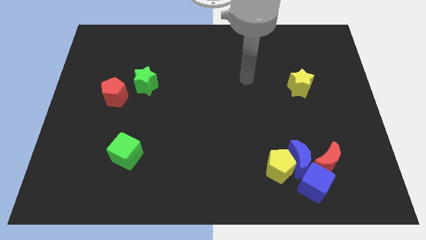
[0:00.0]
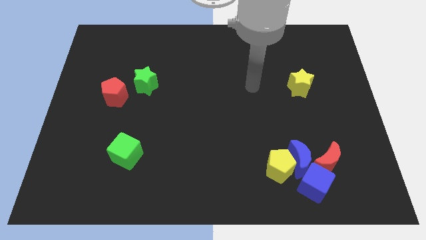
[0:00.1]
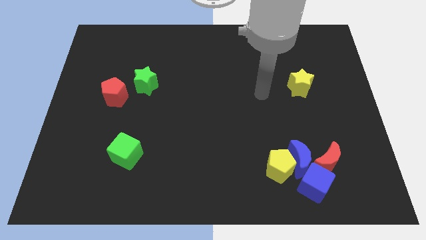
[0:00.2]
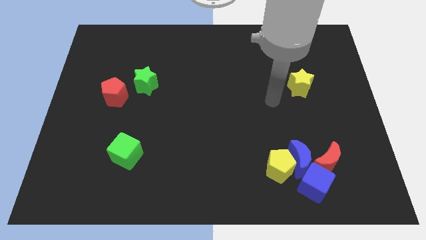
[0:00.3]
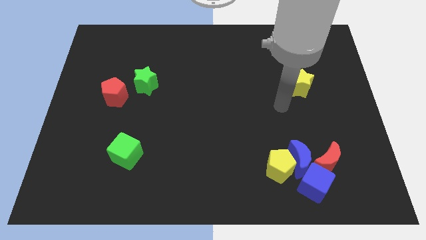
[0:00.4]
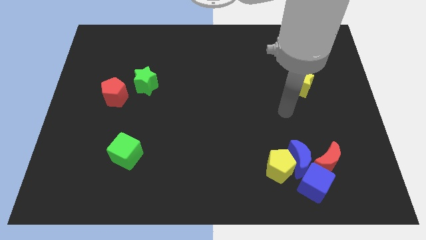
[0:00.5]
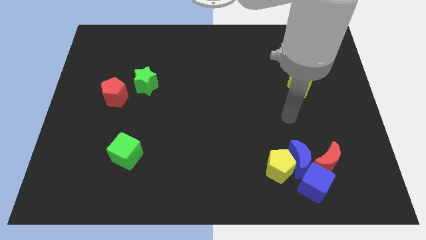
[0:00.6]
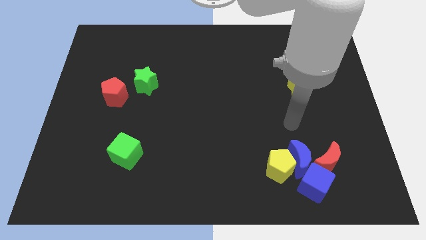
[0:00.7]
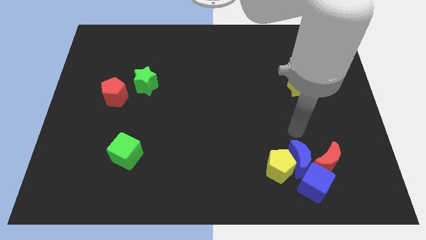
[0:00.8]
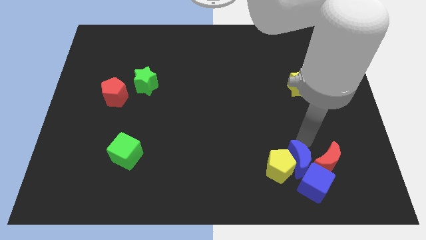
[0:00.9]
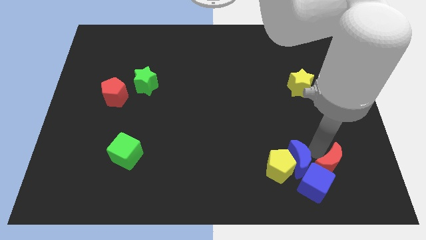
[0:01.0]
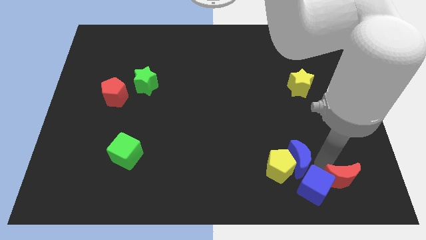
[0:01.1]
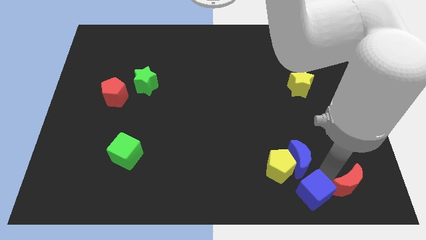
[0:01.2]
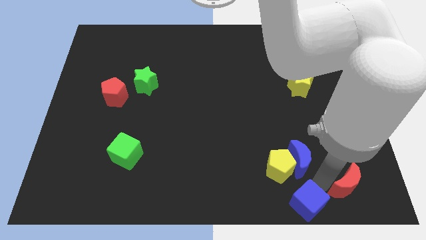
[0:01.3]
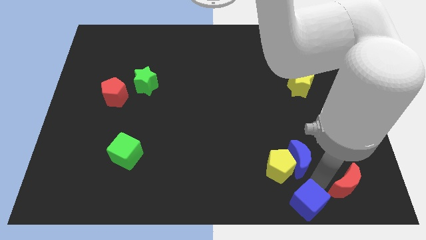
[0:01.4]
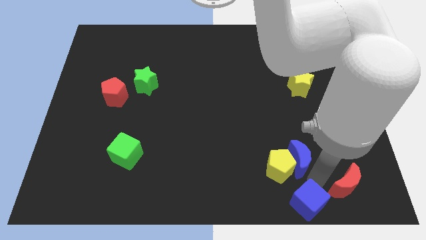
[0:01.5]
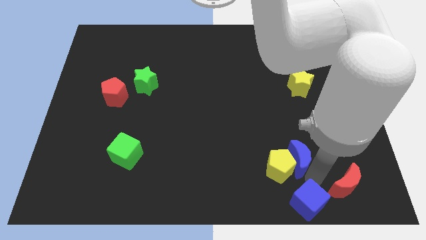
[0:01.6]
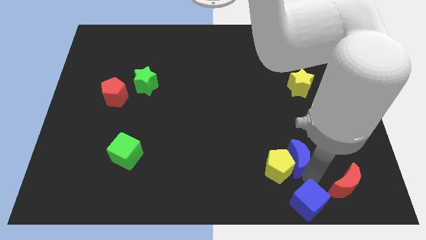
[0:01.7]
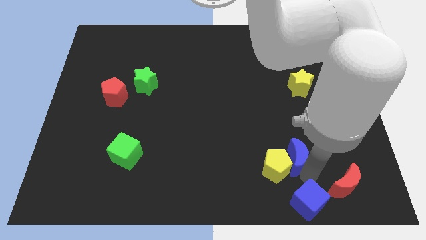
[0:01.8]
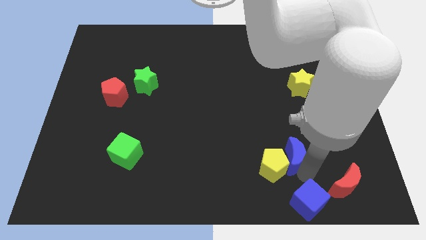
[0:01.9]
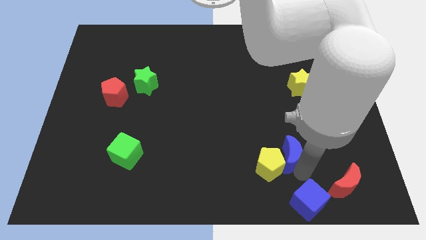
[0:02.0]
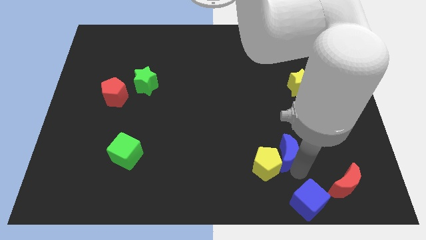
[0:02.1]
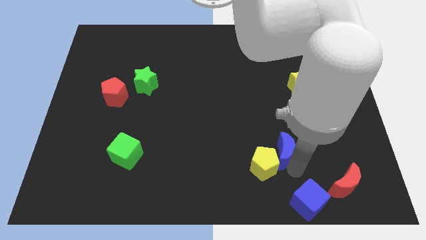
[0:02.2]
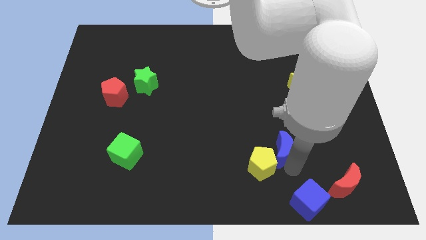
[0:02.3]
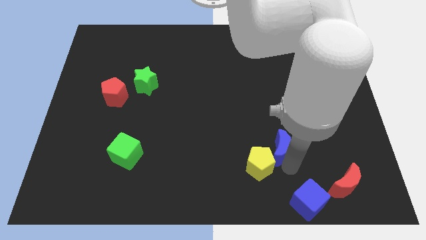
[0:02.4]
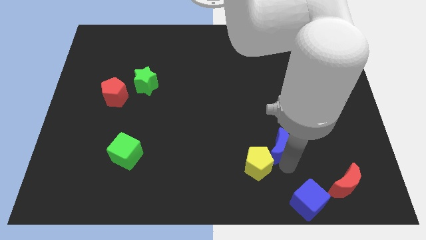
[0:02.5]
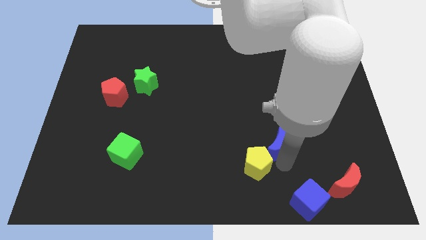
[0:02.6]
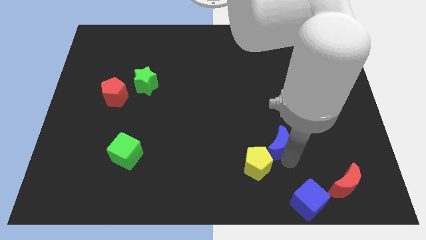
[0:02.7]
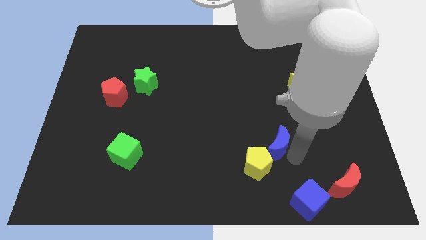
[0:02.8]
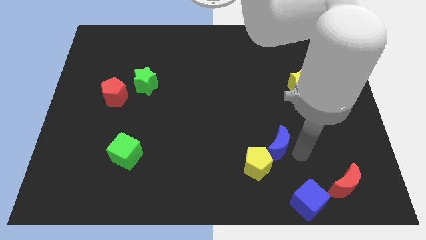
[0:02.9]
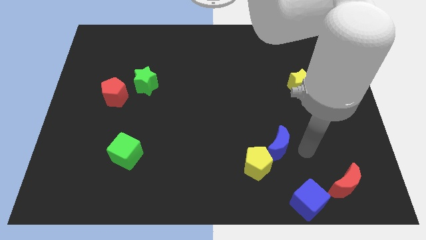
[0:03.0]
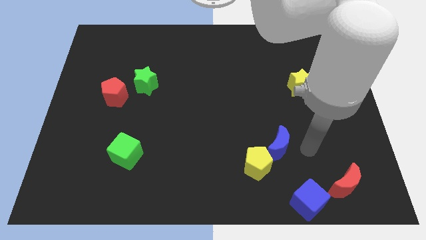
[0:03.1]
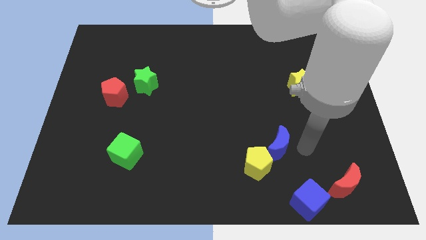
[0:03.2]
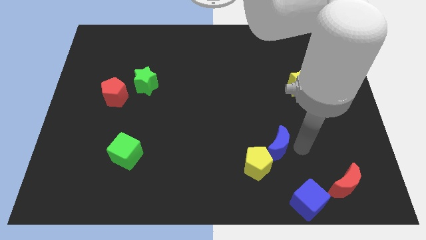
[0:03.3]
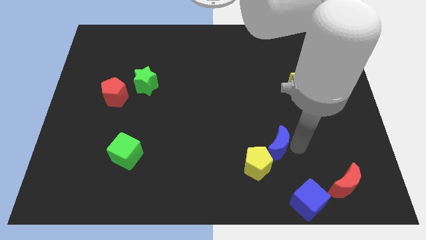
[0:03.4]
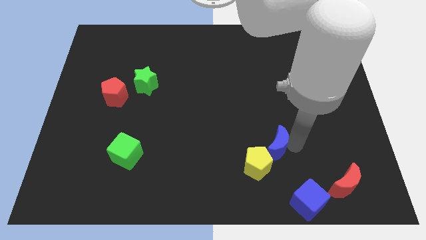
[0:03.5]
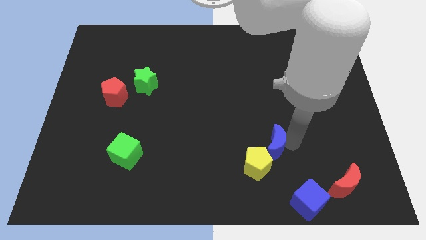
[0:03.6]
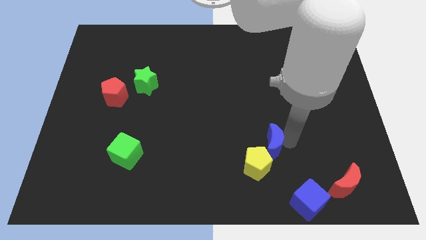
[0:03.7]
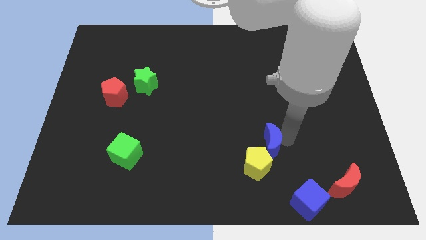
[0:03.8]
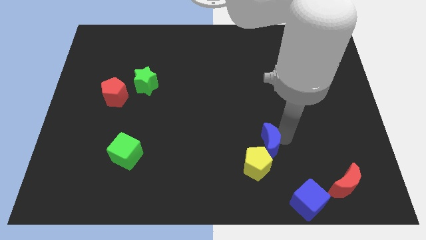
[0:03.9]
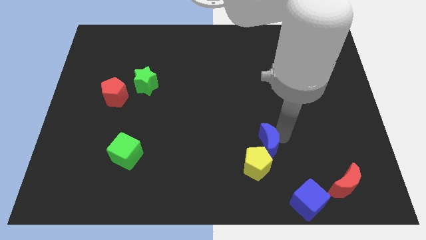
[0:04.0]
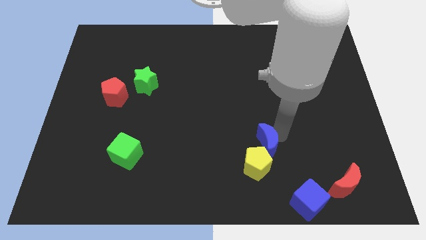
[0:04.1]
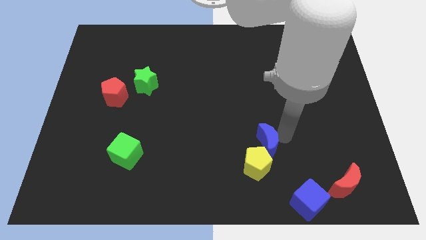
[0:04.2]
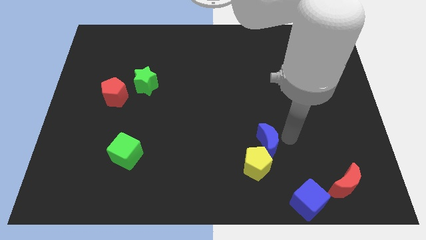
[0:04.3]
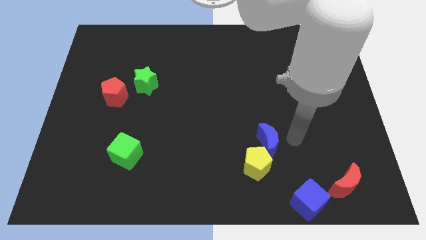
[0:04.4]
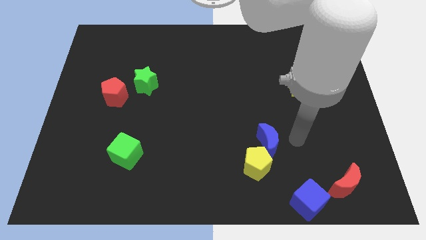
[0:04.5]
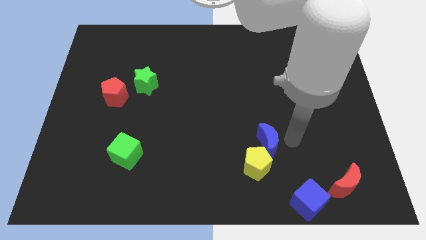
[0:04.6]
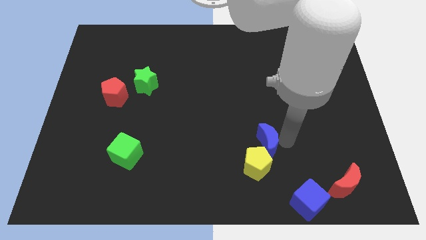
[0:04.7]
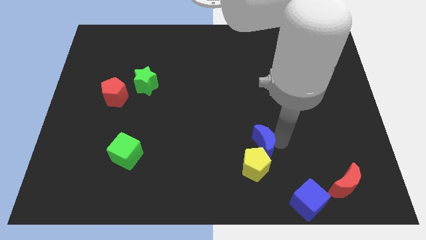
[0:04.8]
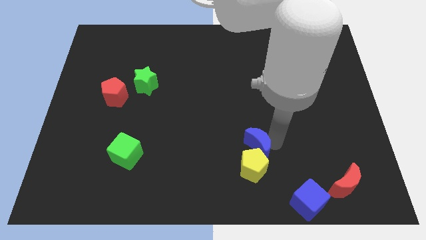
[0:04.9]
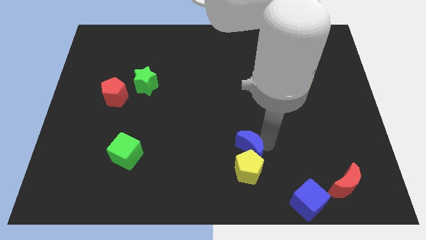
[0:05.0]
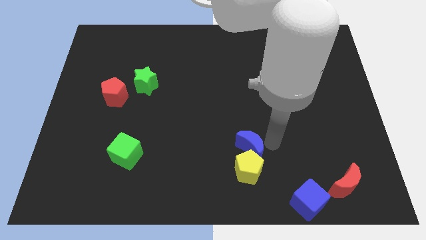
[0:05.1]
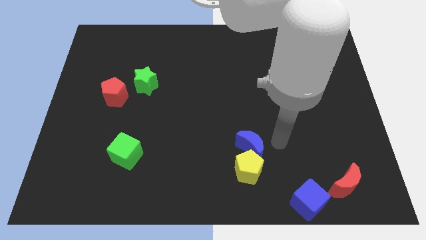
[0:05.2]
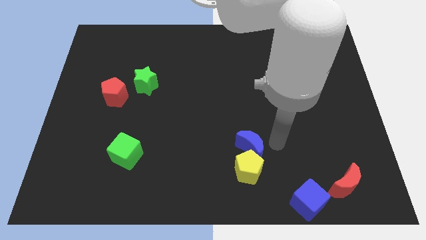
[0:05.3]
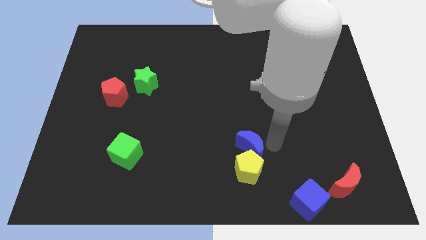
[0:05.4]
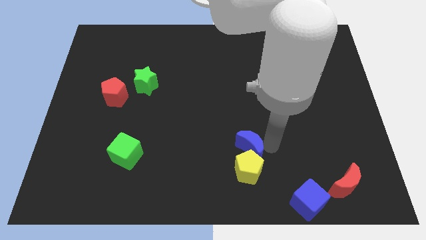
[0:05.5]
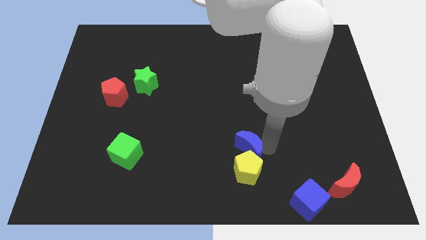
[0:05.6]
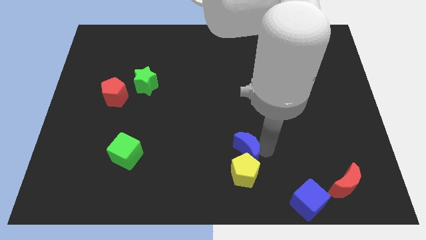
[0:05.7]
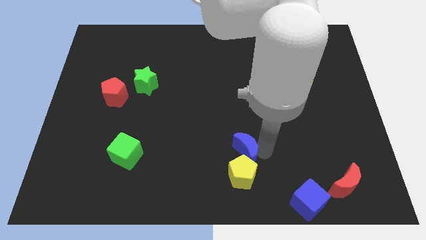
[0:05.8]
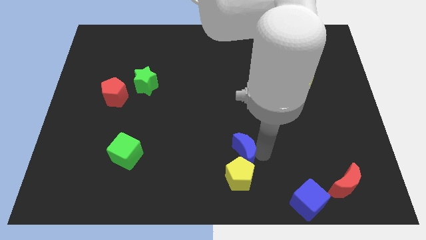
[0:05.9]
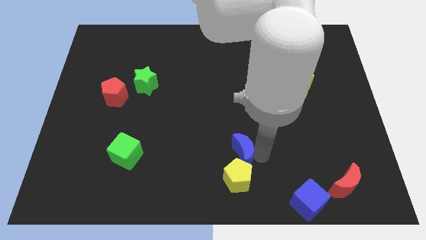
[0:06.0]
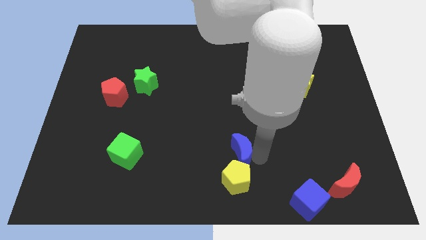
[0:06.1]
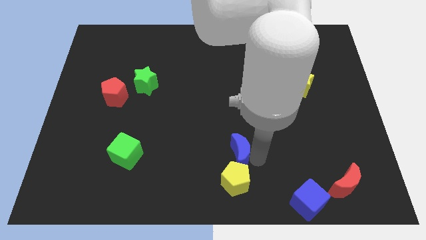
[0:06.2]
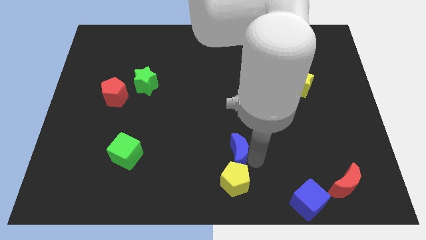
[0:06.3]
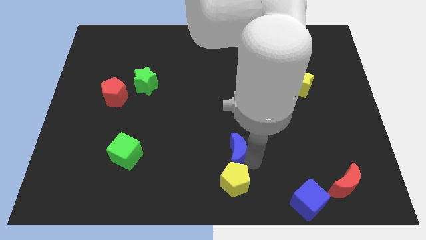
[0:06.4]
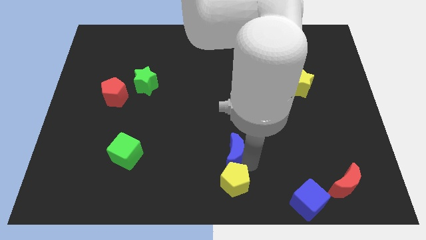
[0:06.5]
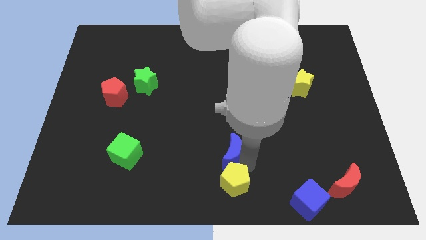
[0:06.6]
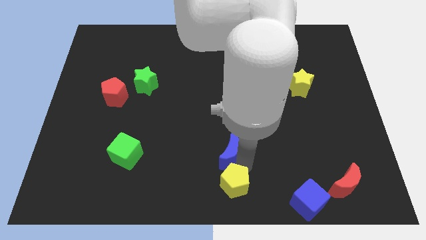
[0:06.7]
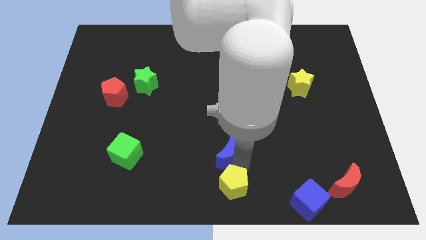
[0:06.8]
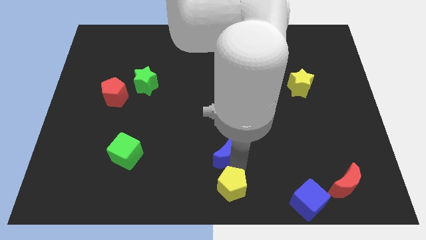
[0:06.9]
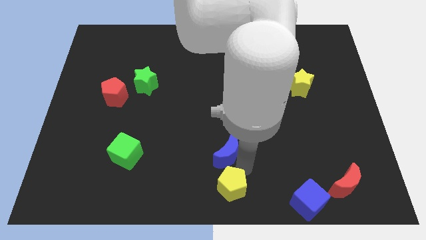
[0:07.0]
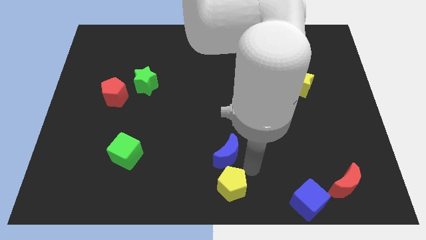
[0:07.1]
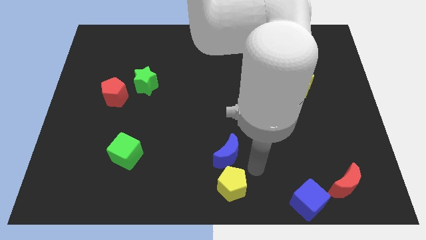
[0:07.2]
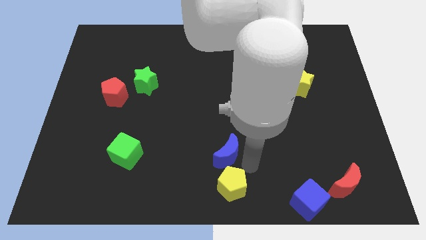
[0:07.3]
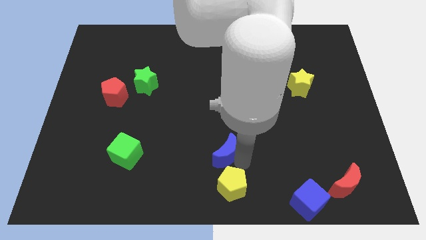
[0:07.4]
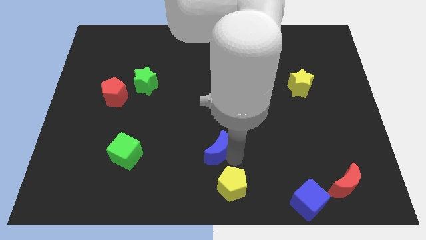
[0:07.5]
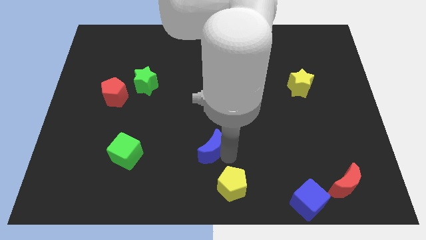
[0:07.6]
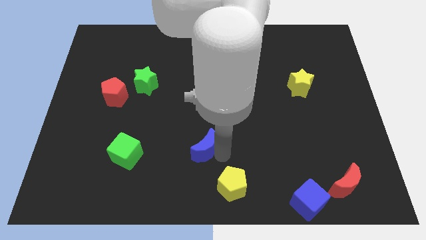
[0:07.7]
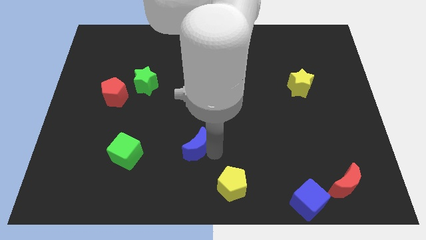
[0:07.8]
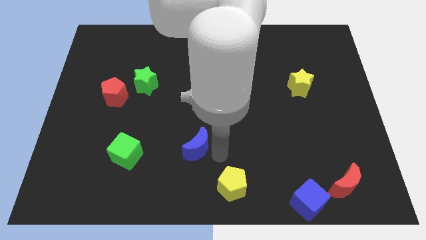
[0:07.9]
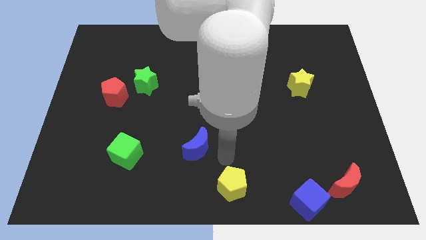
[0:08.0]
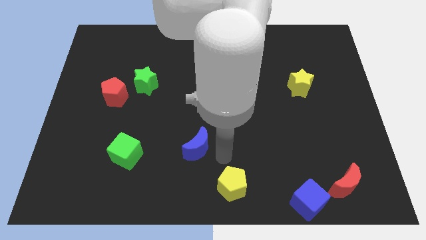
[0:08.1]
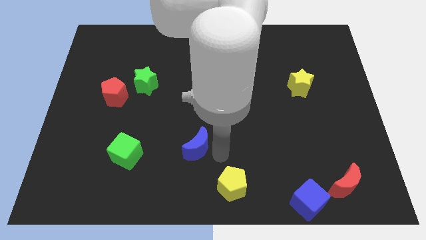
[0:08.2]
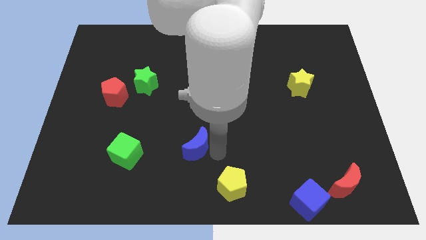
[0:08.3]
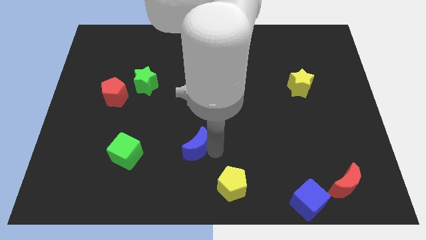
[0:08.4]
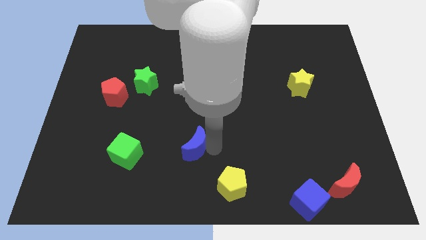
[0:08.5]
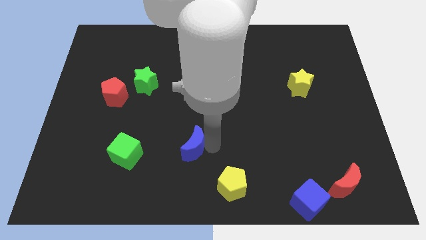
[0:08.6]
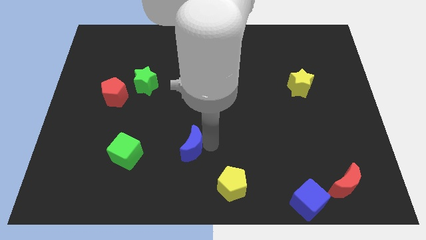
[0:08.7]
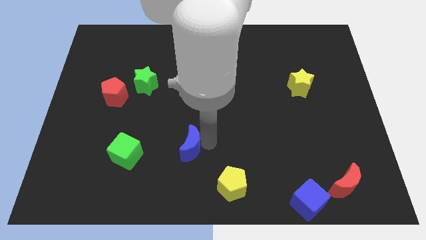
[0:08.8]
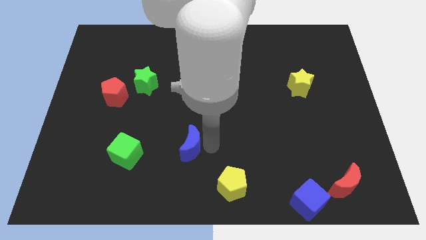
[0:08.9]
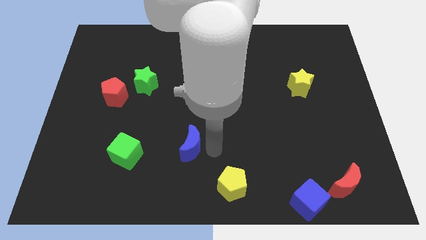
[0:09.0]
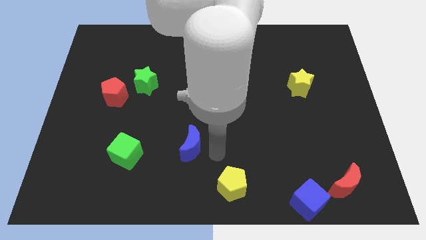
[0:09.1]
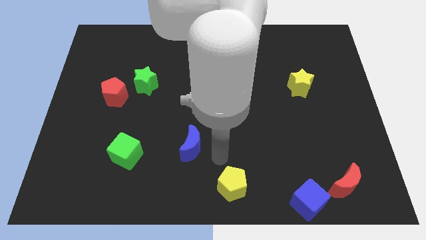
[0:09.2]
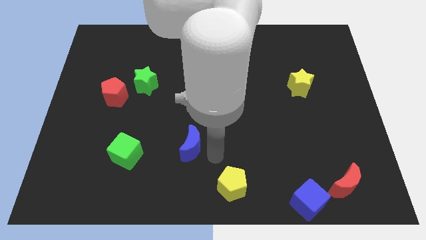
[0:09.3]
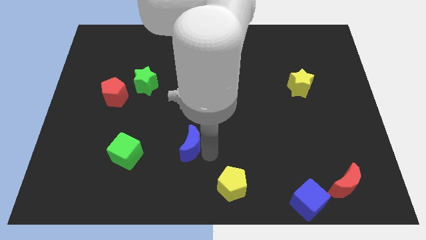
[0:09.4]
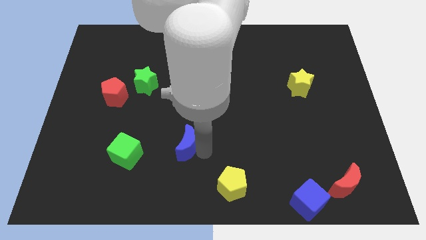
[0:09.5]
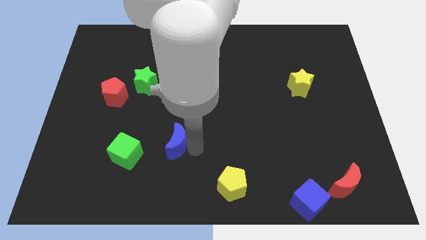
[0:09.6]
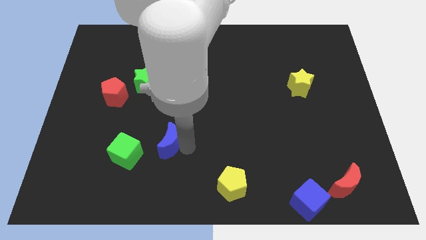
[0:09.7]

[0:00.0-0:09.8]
push the blue moon to the top right of the green cube
